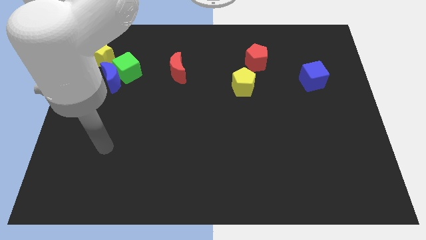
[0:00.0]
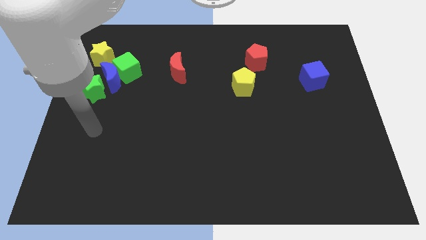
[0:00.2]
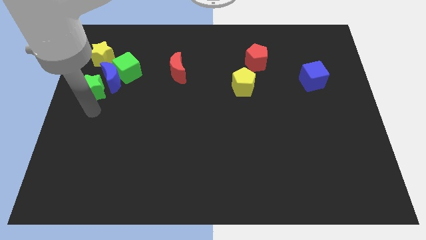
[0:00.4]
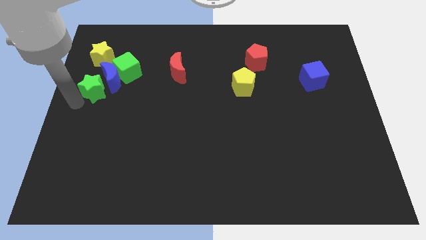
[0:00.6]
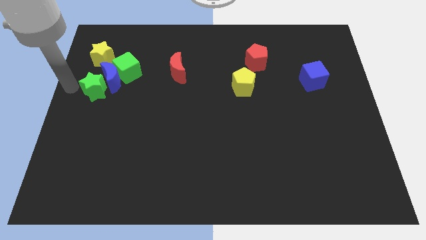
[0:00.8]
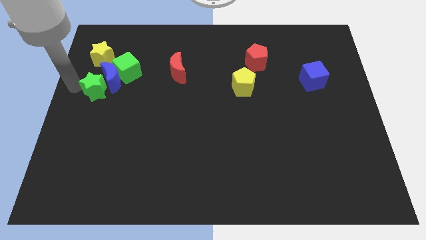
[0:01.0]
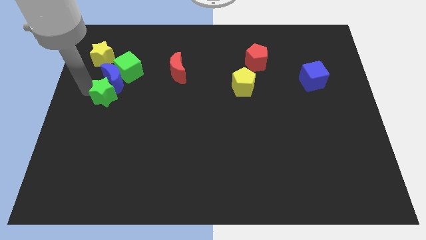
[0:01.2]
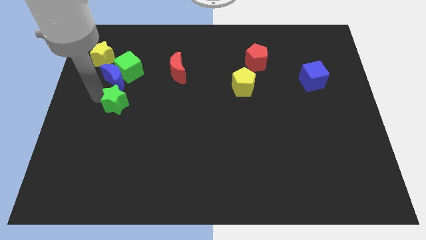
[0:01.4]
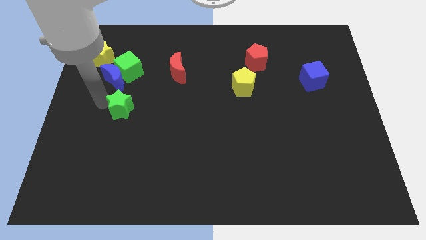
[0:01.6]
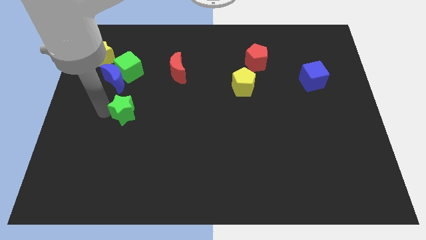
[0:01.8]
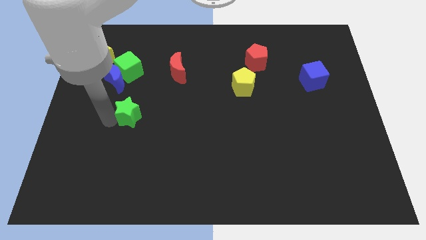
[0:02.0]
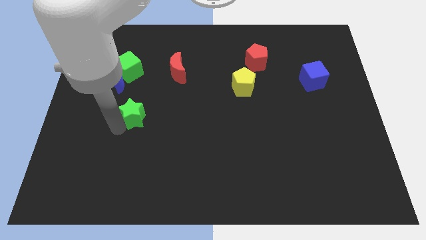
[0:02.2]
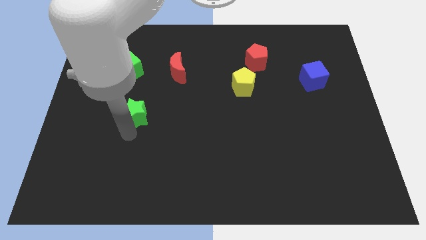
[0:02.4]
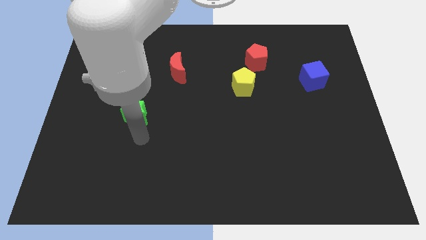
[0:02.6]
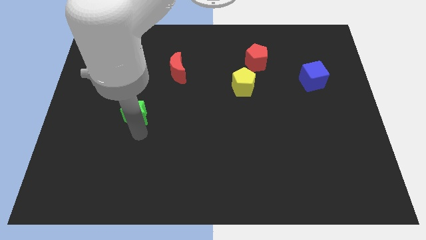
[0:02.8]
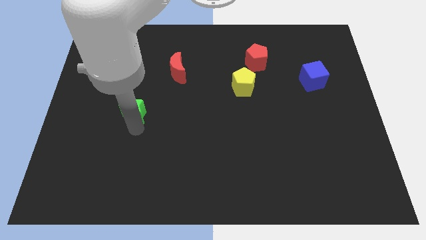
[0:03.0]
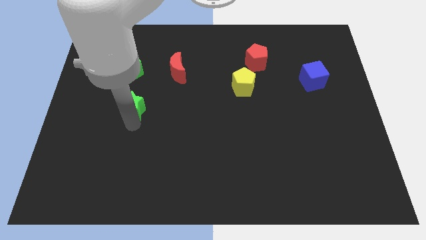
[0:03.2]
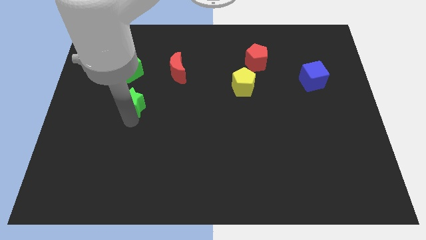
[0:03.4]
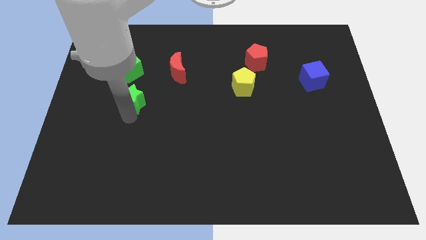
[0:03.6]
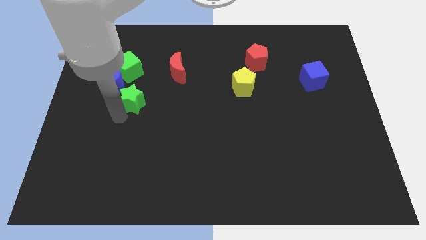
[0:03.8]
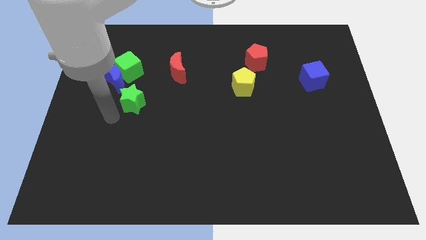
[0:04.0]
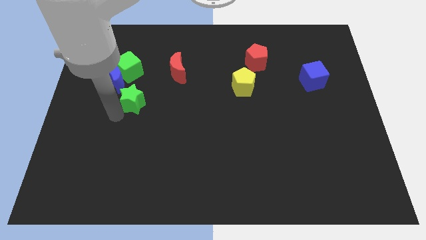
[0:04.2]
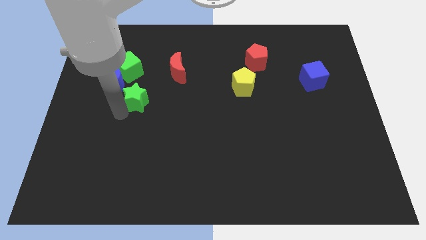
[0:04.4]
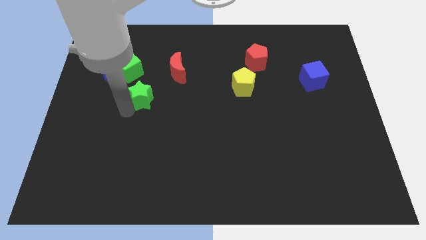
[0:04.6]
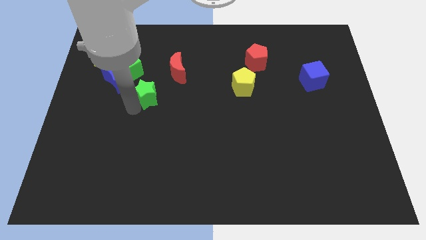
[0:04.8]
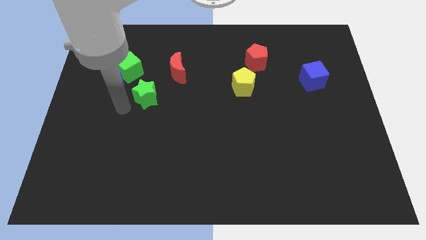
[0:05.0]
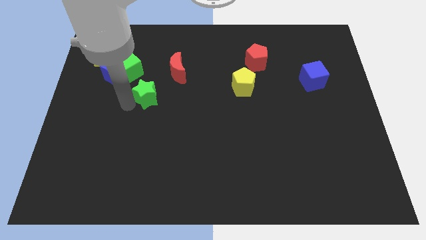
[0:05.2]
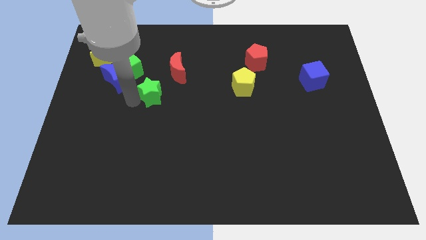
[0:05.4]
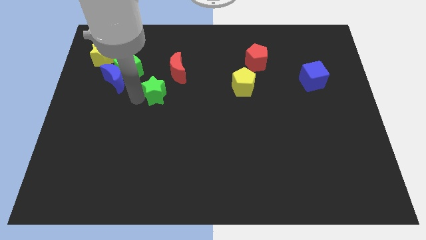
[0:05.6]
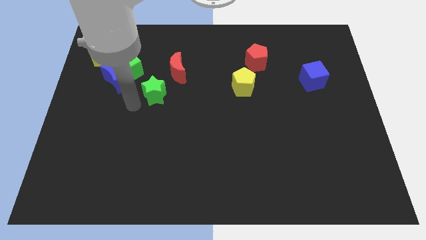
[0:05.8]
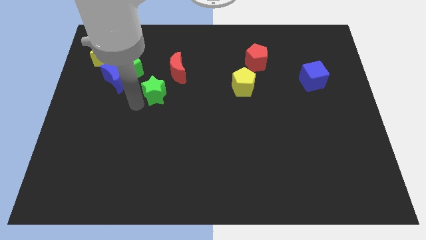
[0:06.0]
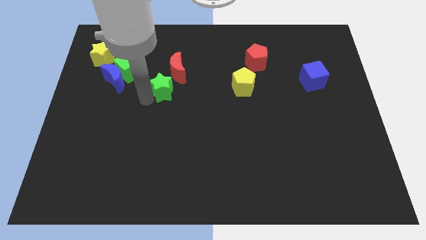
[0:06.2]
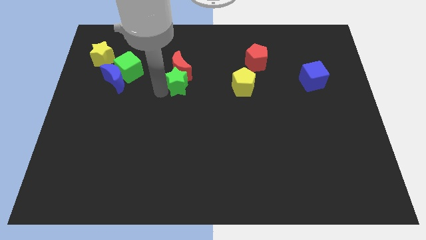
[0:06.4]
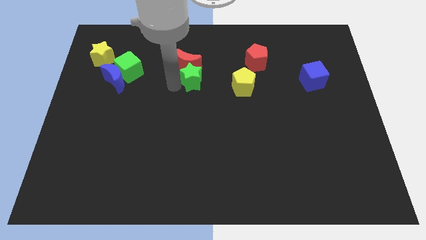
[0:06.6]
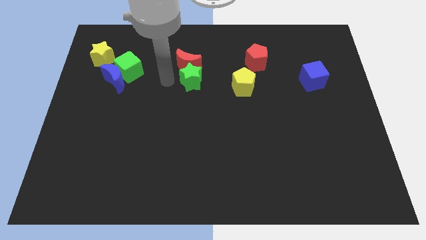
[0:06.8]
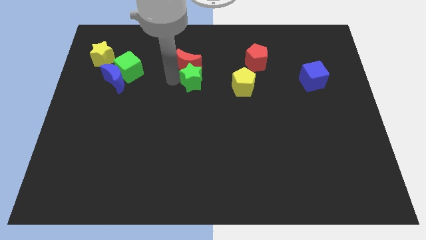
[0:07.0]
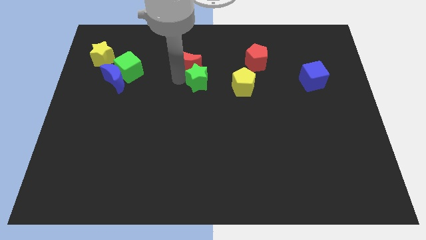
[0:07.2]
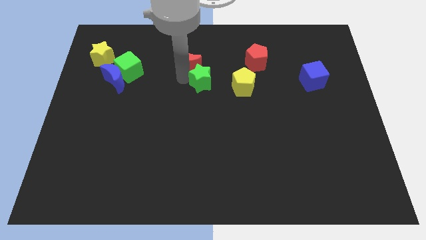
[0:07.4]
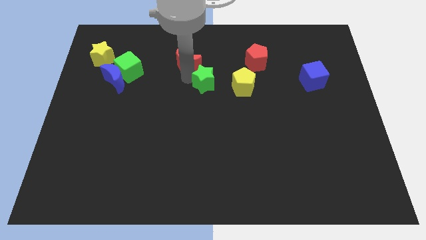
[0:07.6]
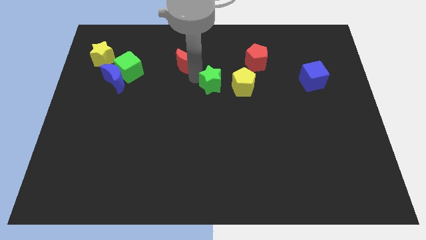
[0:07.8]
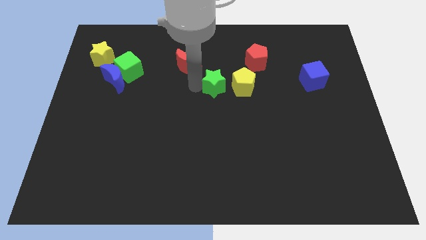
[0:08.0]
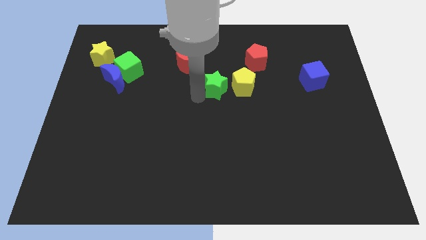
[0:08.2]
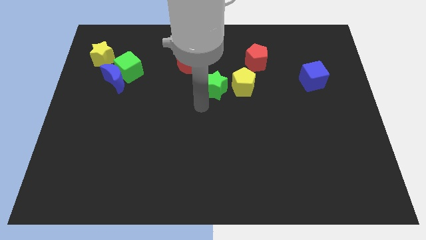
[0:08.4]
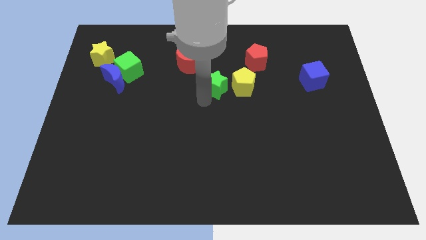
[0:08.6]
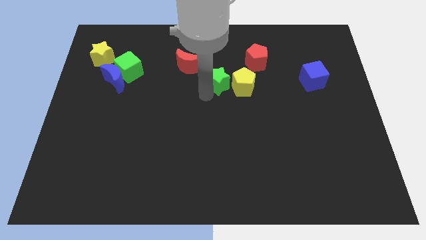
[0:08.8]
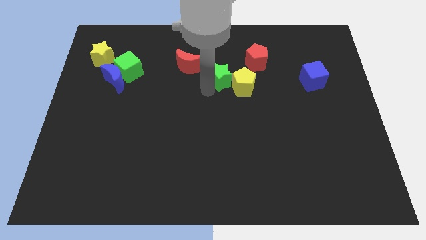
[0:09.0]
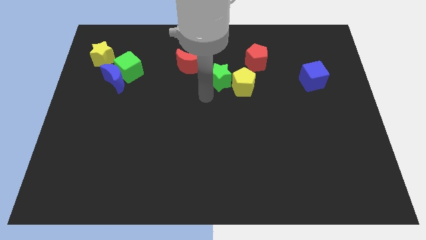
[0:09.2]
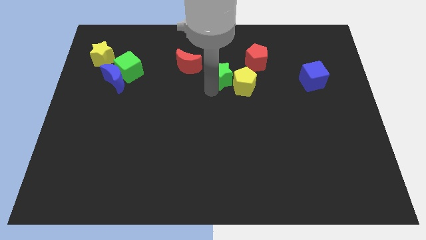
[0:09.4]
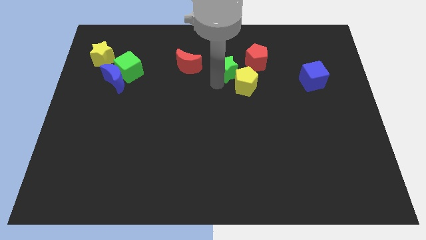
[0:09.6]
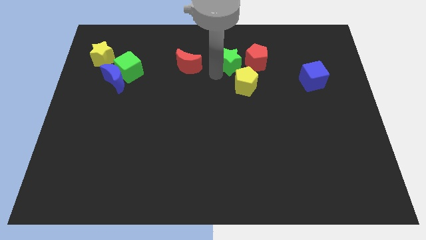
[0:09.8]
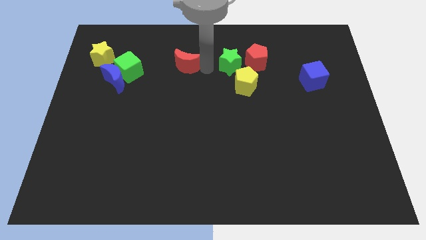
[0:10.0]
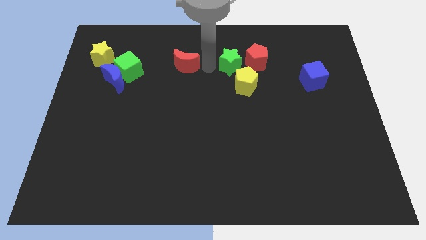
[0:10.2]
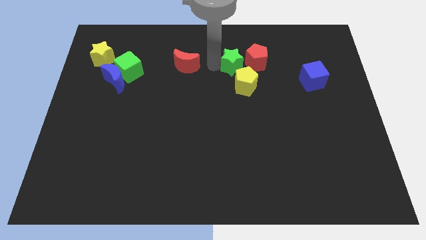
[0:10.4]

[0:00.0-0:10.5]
push the green star to the red pentagon

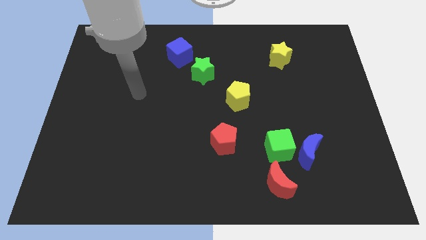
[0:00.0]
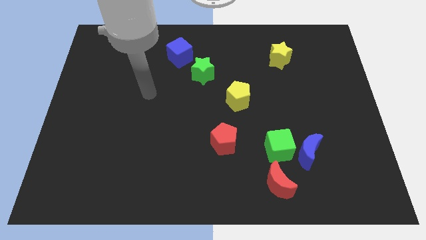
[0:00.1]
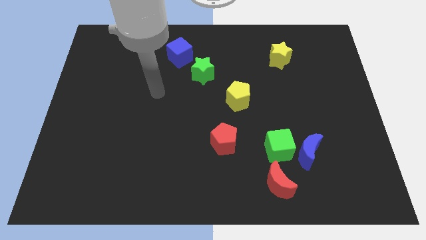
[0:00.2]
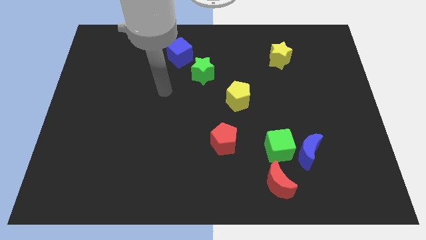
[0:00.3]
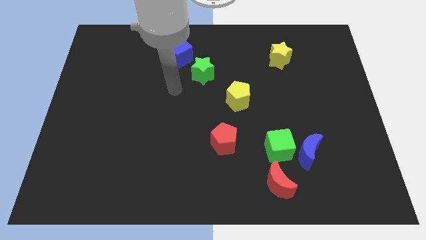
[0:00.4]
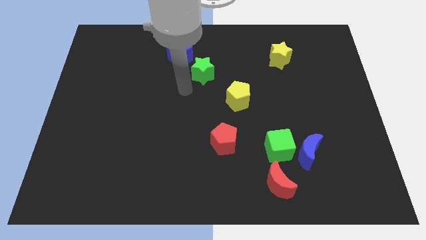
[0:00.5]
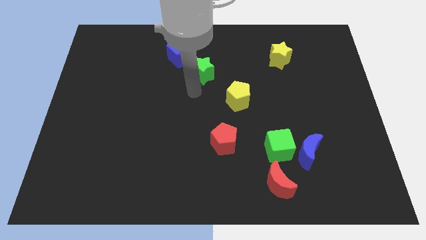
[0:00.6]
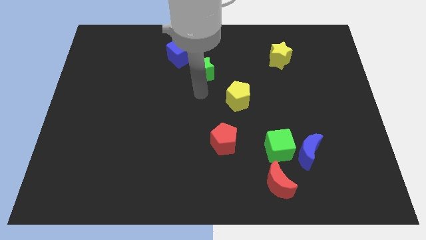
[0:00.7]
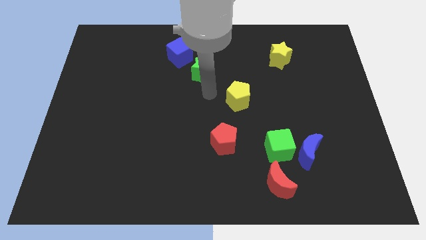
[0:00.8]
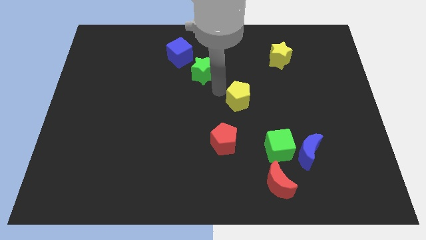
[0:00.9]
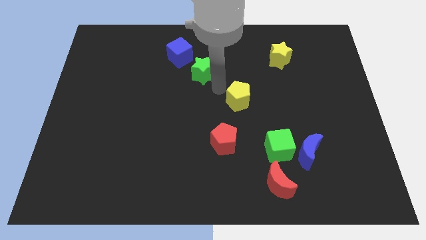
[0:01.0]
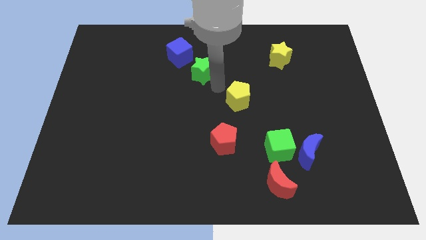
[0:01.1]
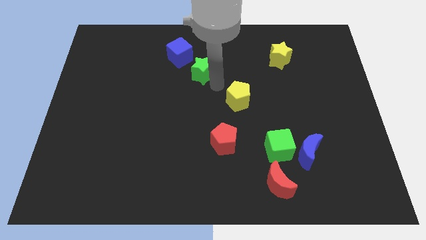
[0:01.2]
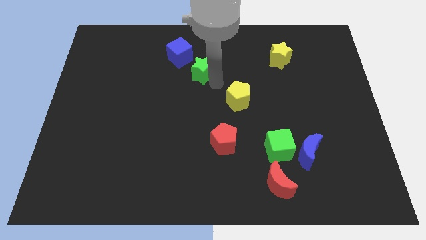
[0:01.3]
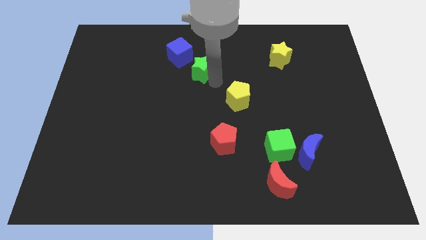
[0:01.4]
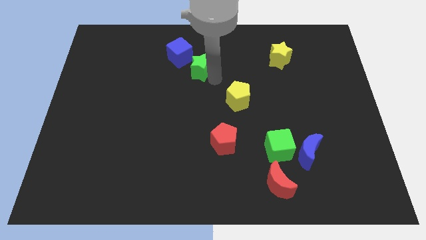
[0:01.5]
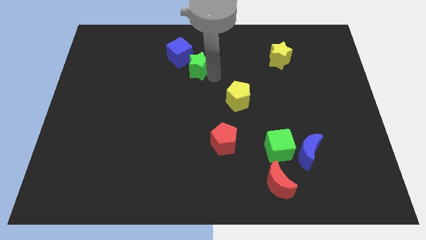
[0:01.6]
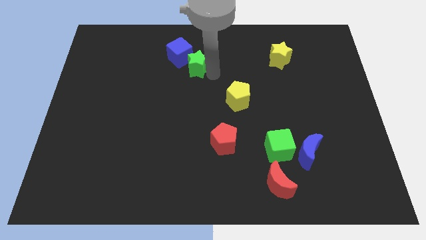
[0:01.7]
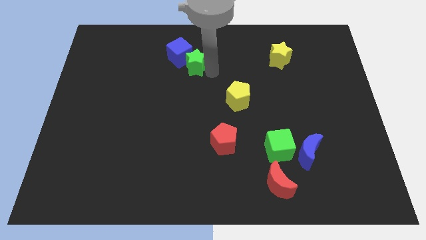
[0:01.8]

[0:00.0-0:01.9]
put the green star towards the blue cube
